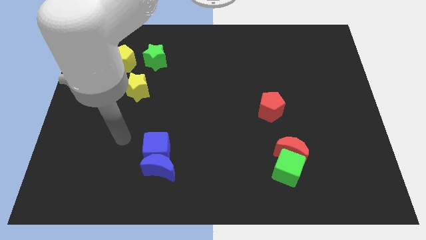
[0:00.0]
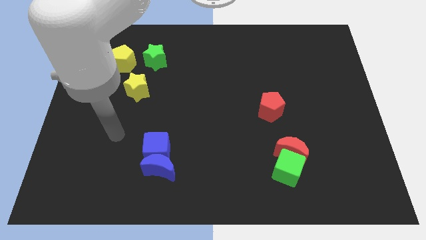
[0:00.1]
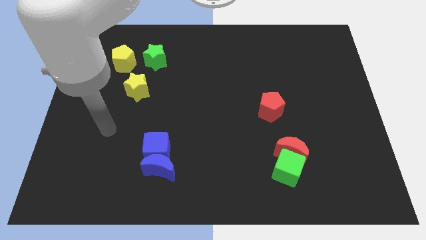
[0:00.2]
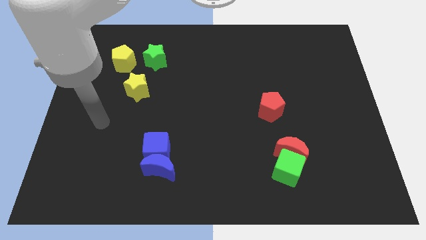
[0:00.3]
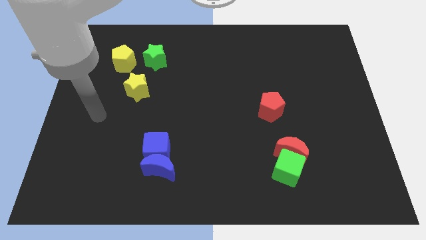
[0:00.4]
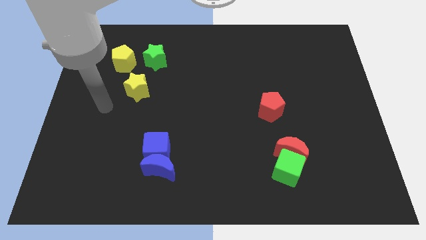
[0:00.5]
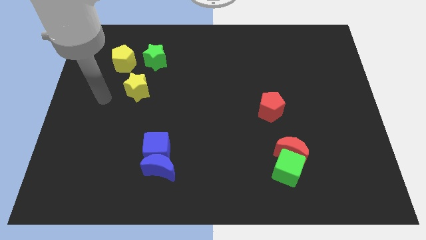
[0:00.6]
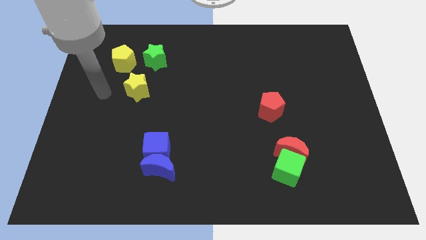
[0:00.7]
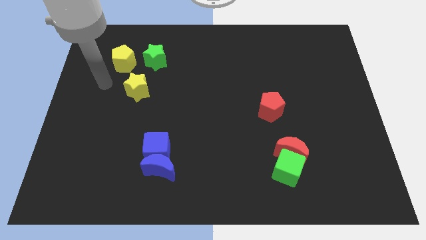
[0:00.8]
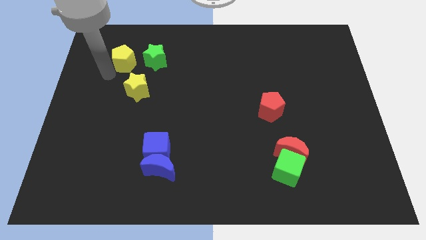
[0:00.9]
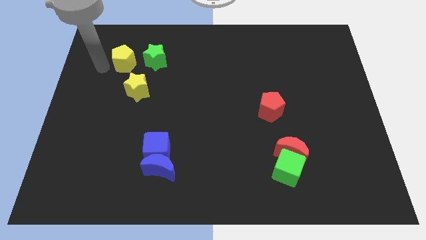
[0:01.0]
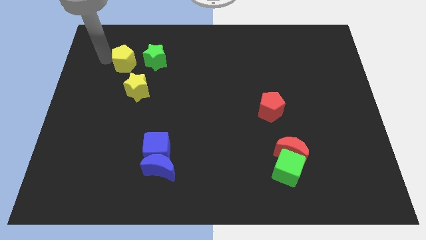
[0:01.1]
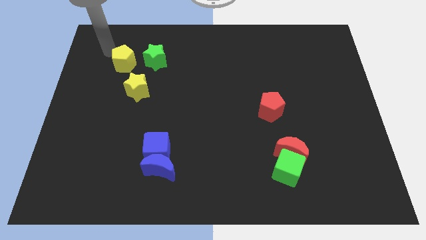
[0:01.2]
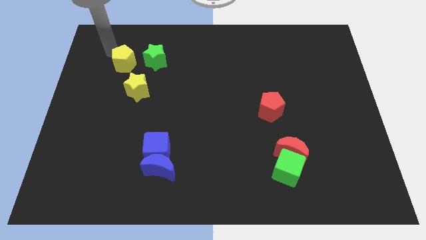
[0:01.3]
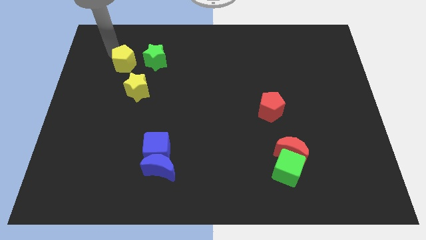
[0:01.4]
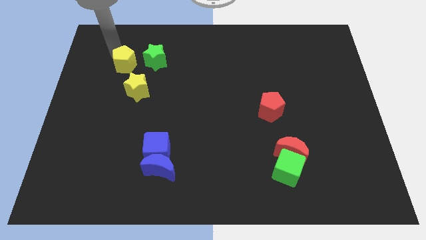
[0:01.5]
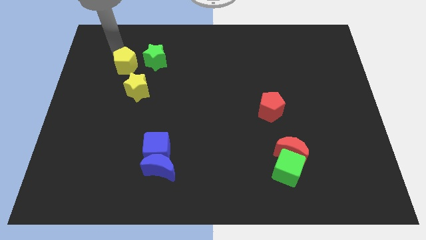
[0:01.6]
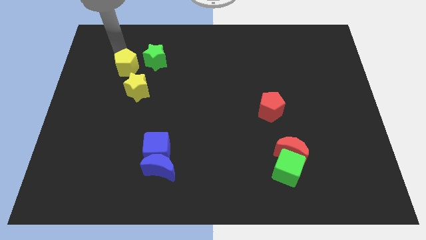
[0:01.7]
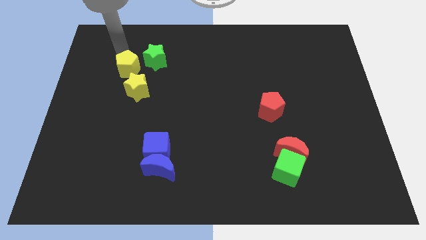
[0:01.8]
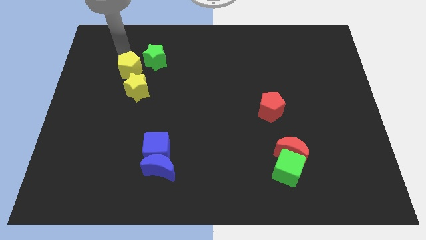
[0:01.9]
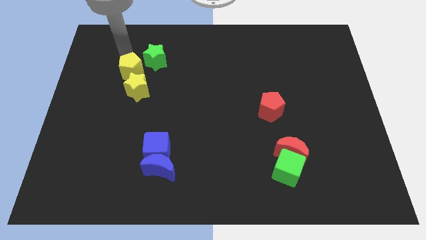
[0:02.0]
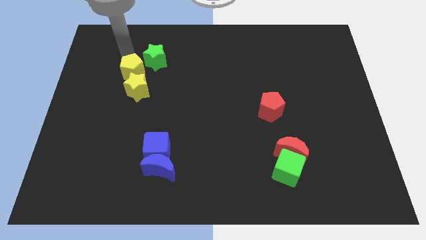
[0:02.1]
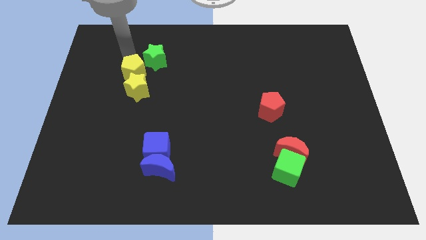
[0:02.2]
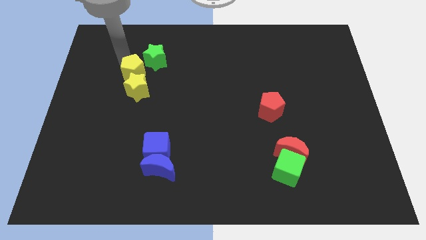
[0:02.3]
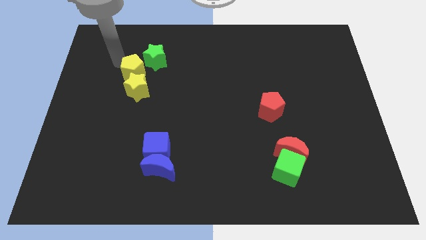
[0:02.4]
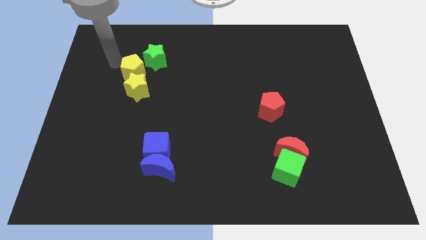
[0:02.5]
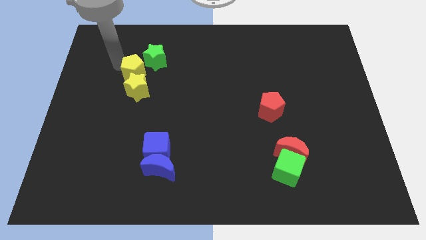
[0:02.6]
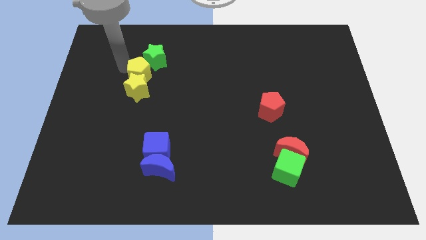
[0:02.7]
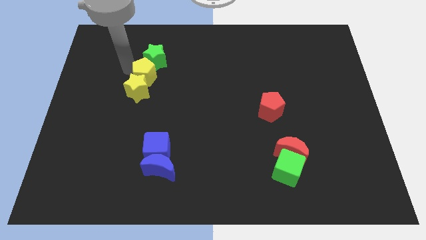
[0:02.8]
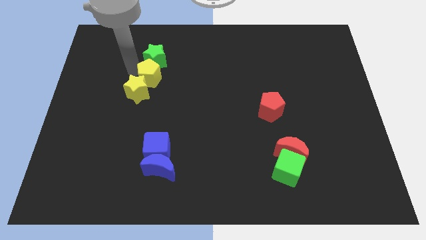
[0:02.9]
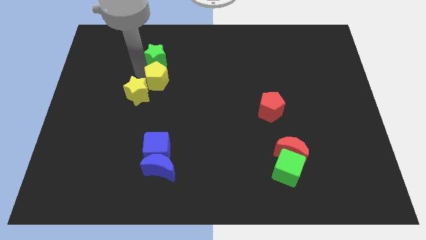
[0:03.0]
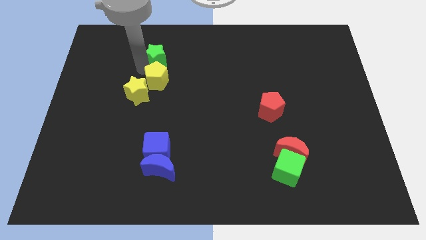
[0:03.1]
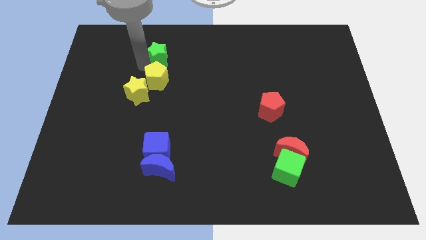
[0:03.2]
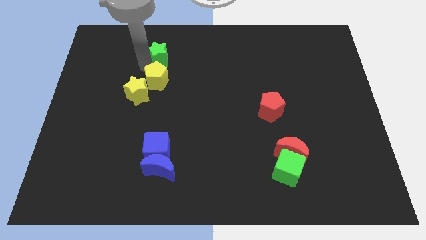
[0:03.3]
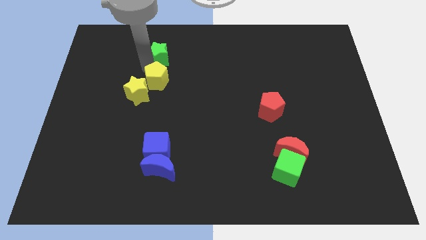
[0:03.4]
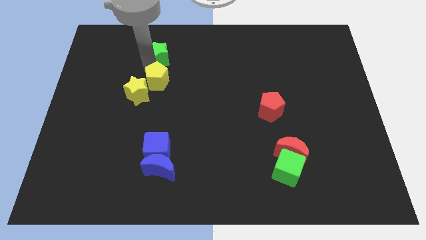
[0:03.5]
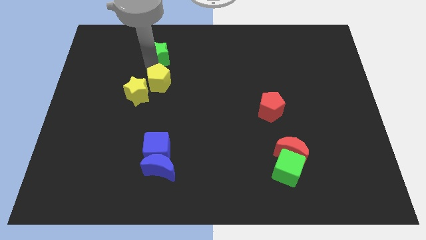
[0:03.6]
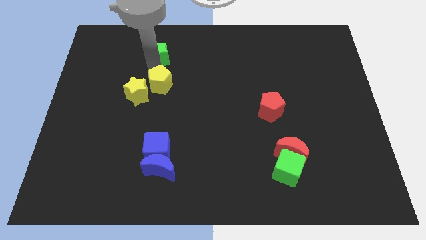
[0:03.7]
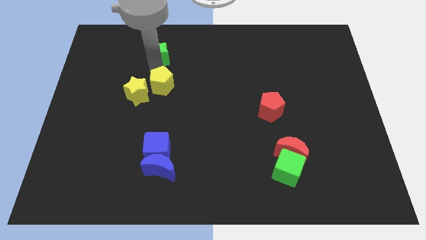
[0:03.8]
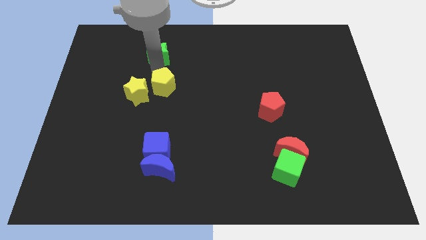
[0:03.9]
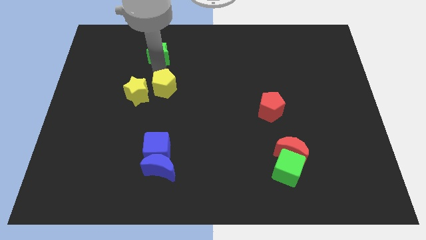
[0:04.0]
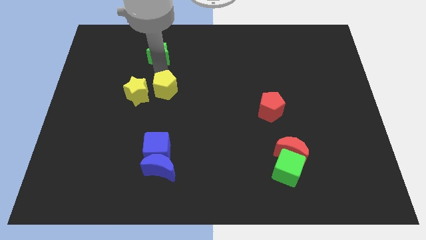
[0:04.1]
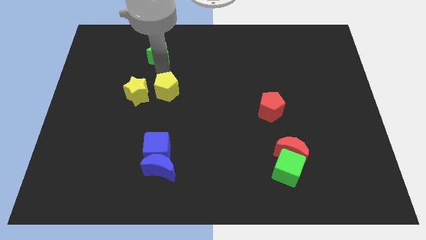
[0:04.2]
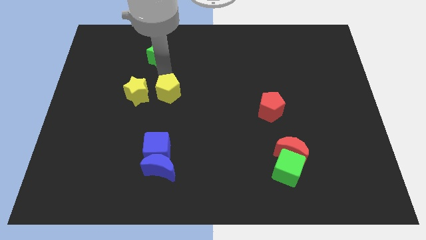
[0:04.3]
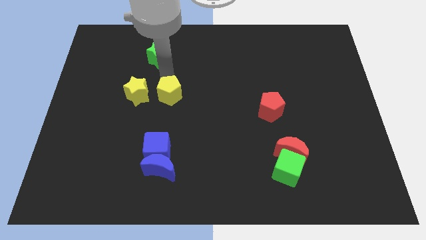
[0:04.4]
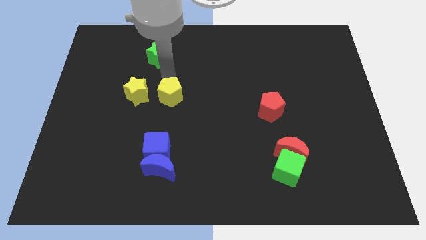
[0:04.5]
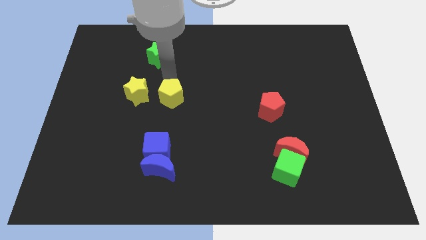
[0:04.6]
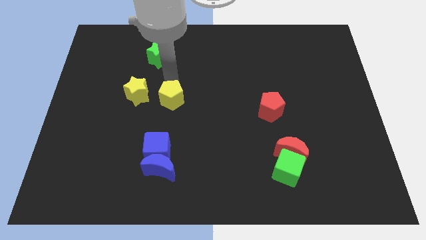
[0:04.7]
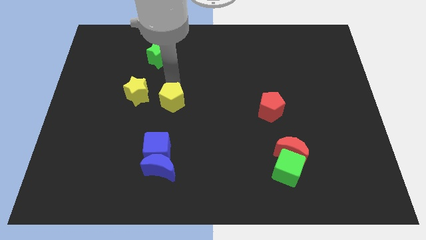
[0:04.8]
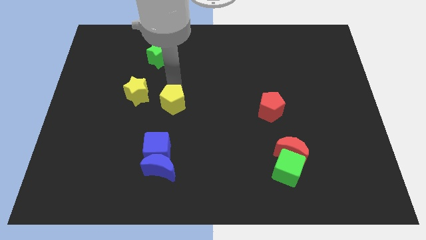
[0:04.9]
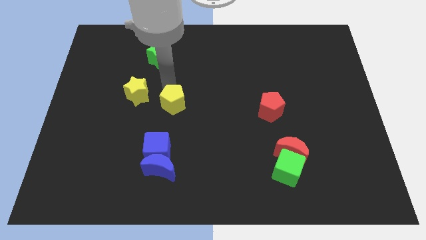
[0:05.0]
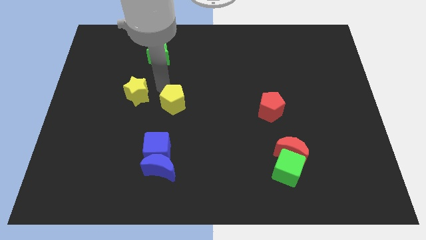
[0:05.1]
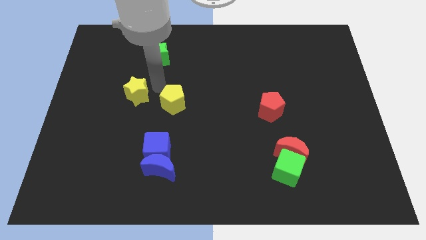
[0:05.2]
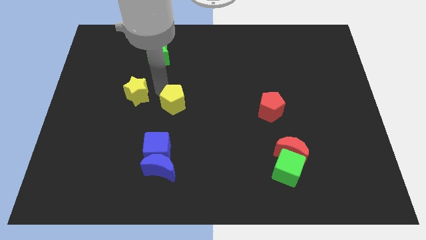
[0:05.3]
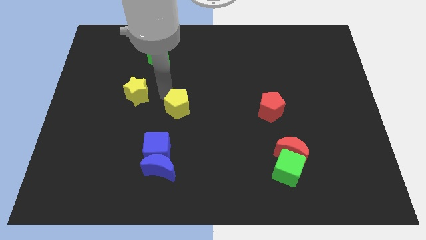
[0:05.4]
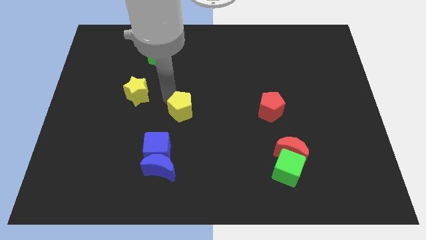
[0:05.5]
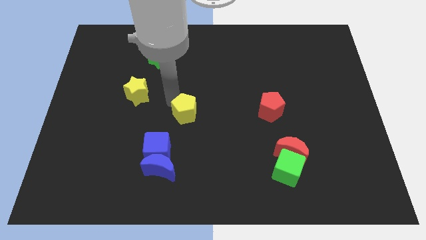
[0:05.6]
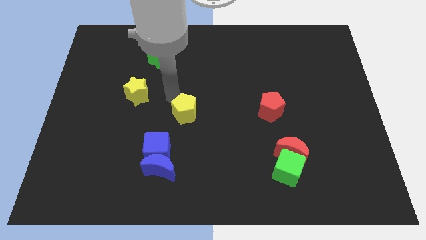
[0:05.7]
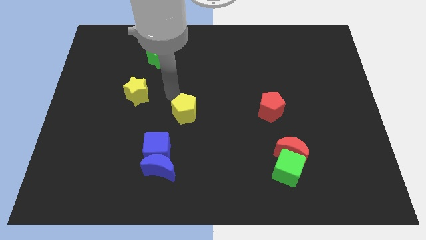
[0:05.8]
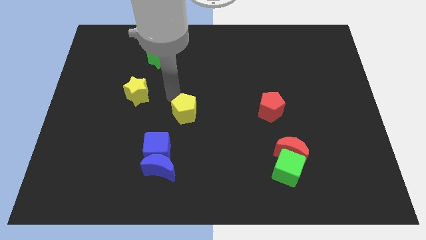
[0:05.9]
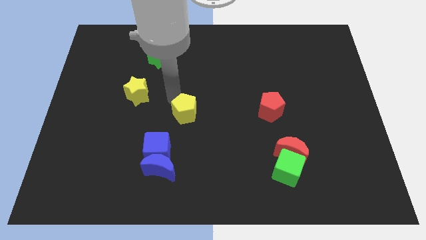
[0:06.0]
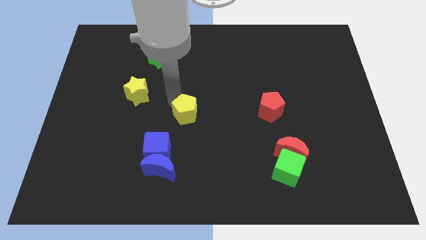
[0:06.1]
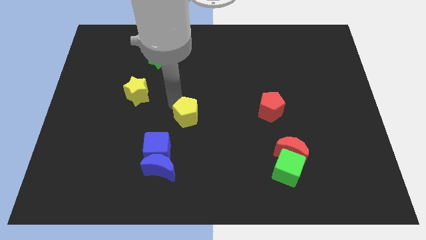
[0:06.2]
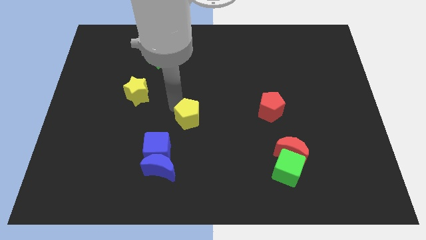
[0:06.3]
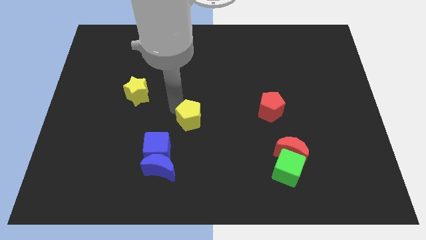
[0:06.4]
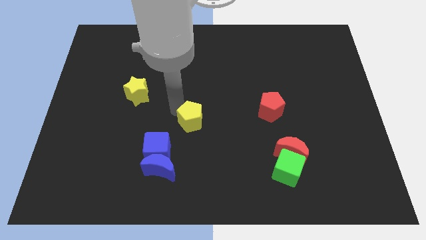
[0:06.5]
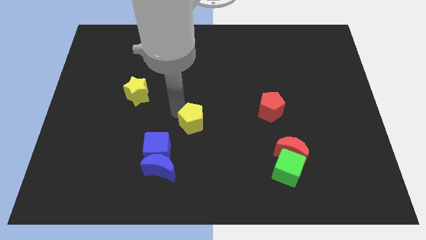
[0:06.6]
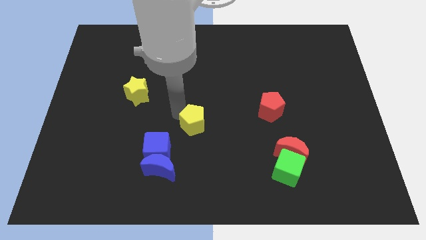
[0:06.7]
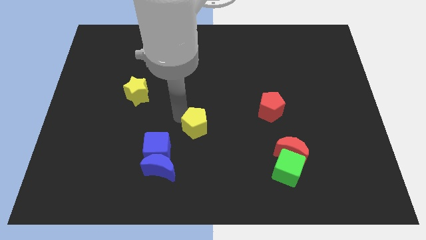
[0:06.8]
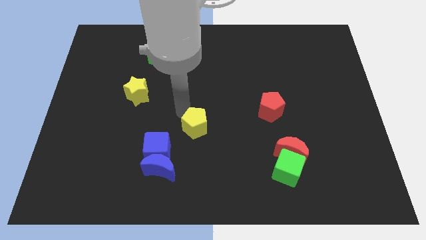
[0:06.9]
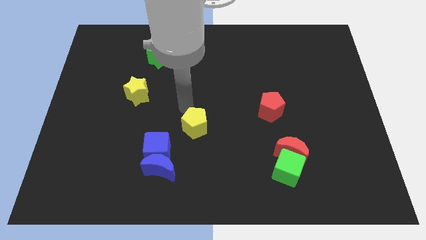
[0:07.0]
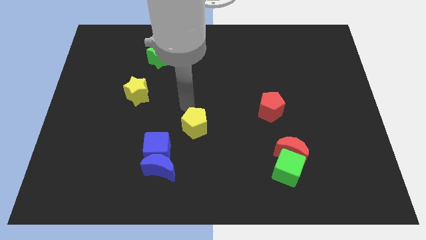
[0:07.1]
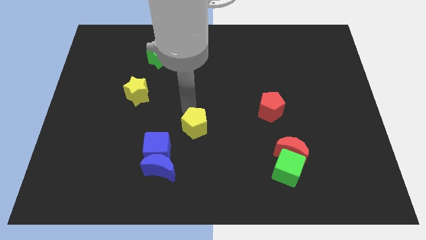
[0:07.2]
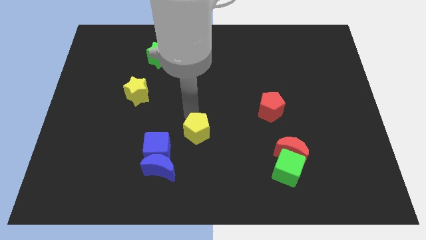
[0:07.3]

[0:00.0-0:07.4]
put the yellow pentagon to the right side of the blue cube
